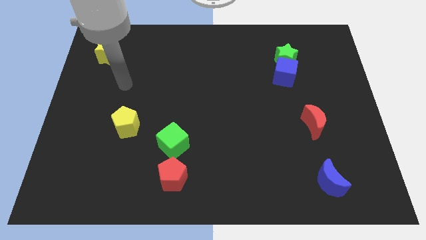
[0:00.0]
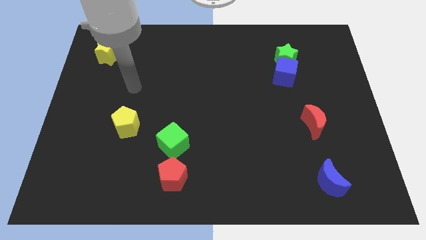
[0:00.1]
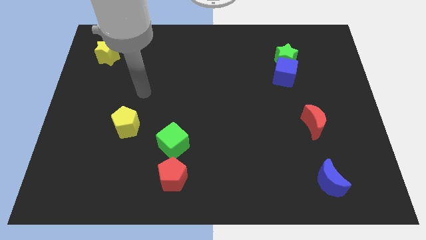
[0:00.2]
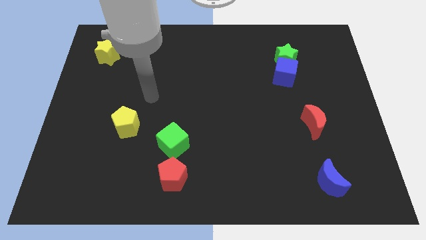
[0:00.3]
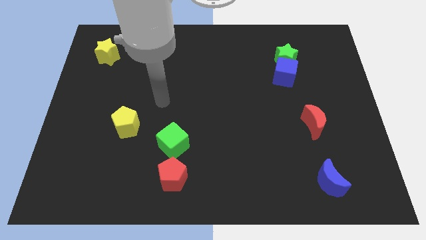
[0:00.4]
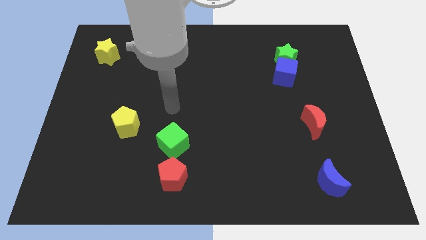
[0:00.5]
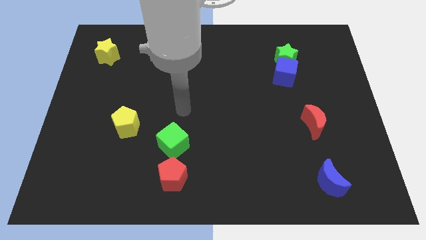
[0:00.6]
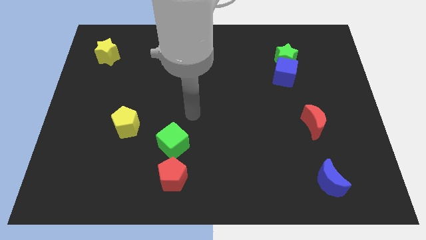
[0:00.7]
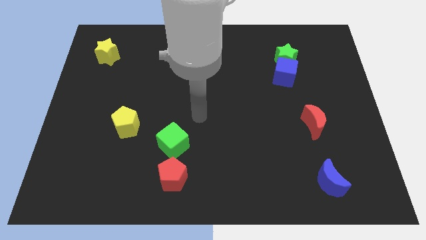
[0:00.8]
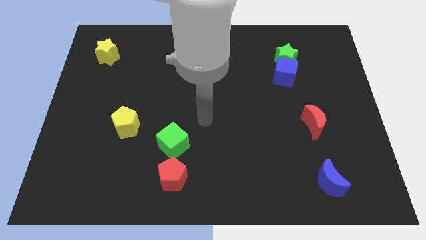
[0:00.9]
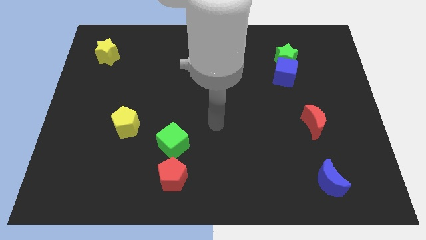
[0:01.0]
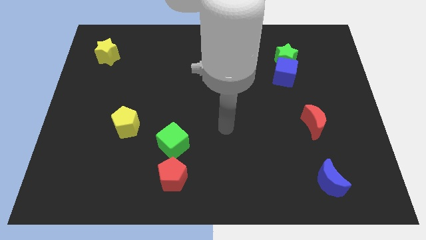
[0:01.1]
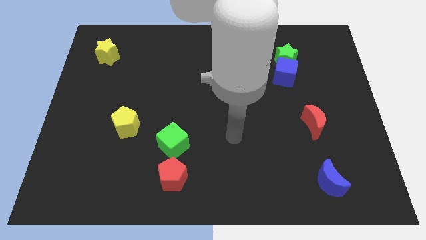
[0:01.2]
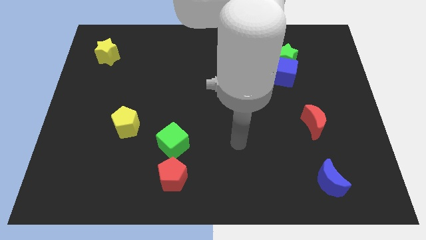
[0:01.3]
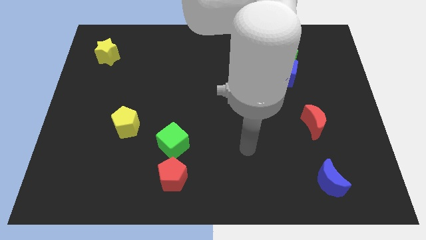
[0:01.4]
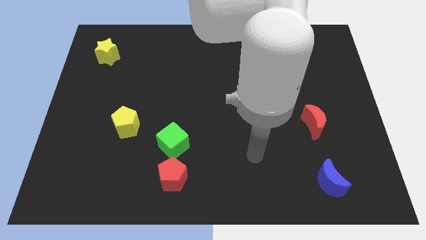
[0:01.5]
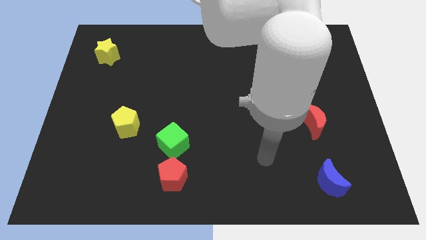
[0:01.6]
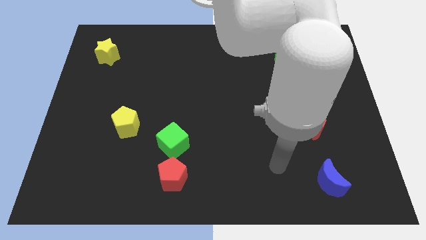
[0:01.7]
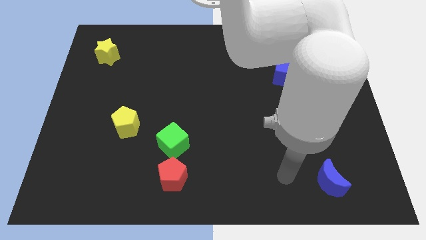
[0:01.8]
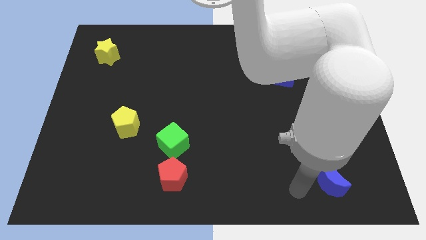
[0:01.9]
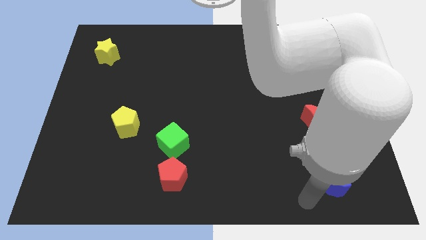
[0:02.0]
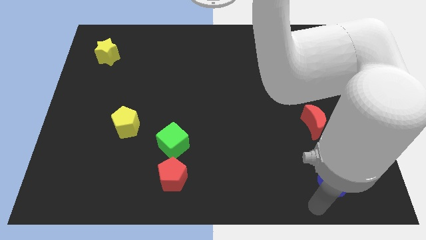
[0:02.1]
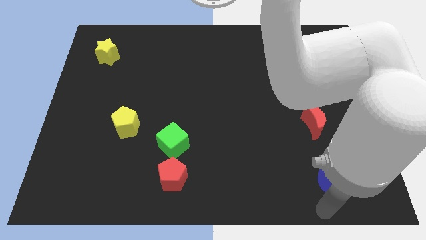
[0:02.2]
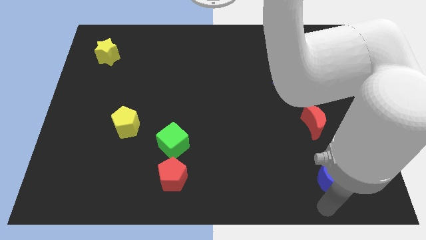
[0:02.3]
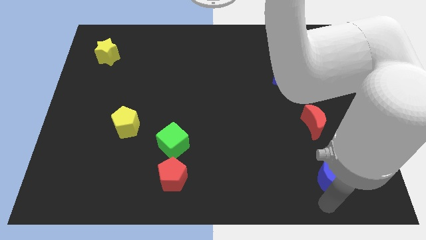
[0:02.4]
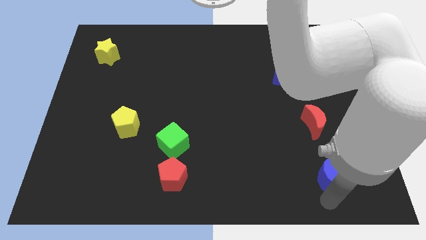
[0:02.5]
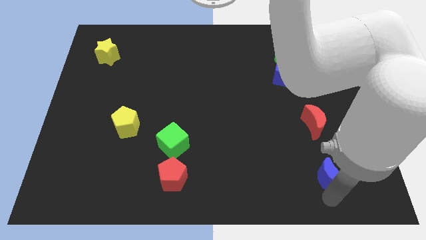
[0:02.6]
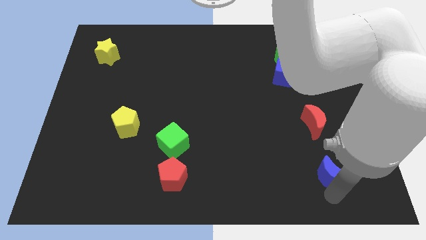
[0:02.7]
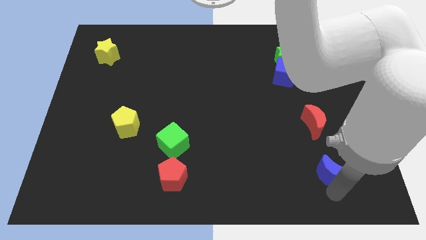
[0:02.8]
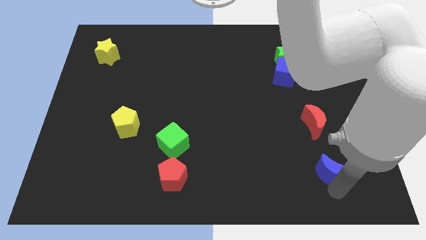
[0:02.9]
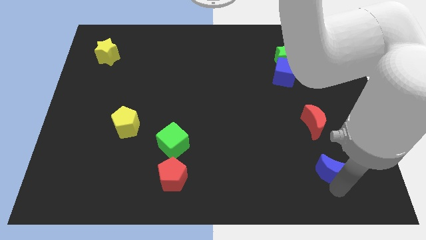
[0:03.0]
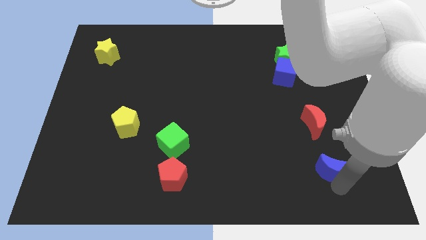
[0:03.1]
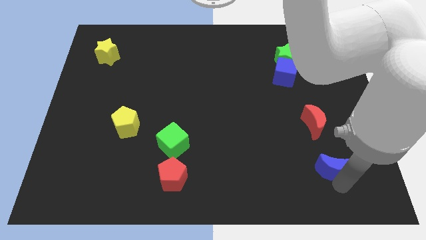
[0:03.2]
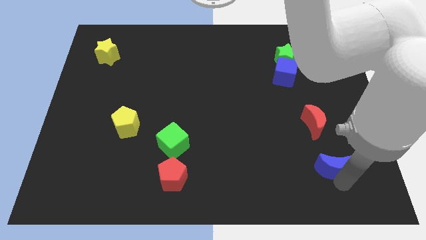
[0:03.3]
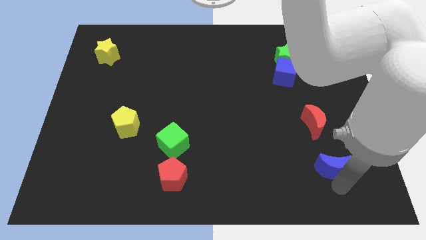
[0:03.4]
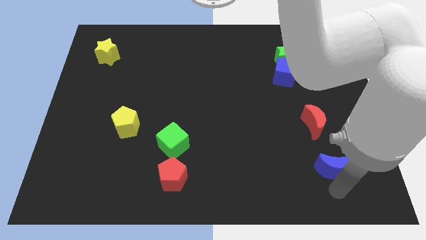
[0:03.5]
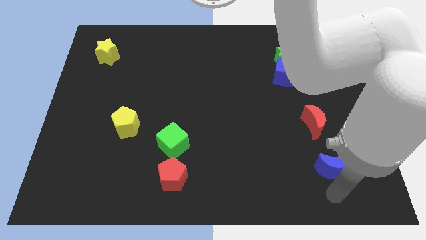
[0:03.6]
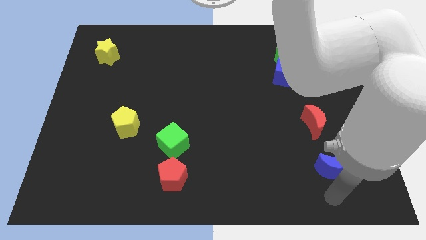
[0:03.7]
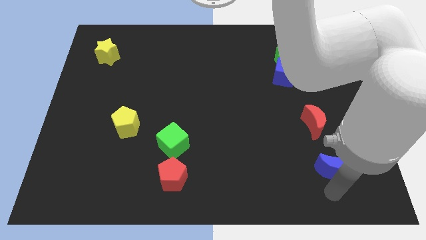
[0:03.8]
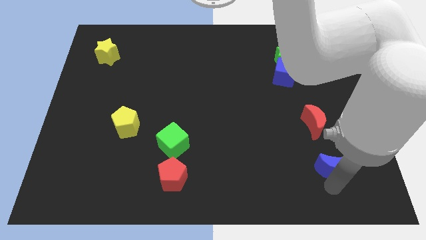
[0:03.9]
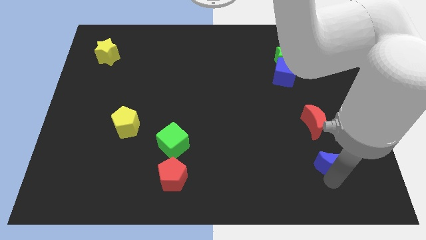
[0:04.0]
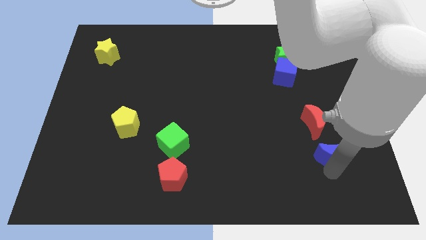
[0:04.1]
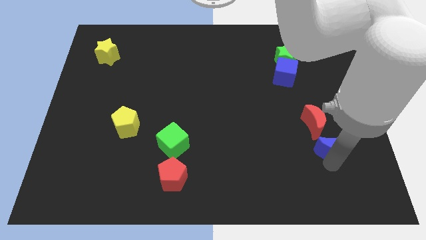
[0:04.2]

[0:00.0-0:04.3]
move the blue moon a little up

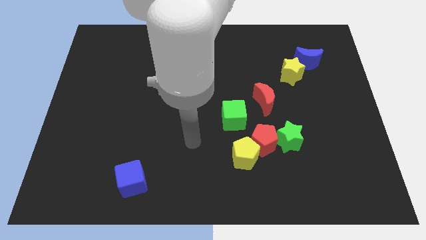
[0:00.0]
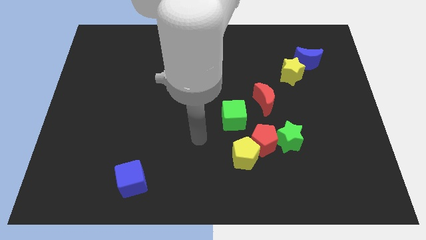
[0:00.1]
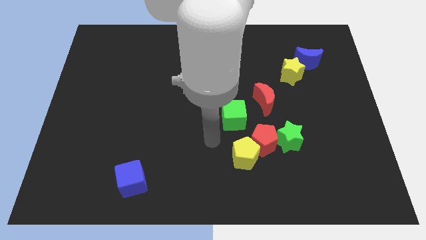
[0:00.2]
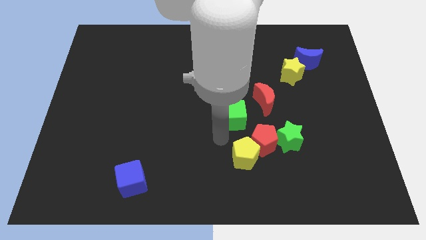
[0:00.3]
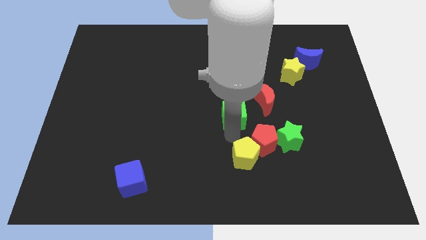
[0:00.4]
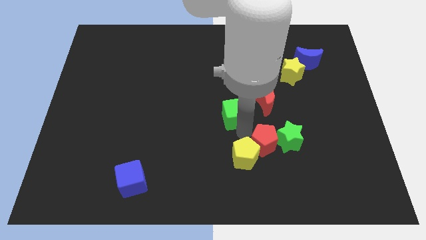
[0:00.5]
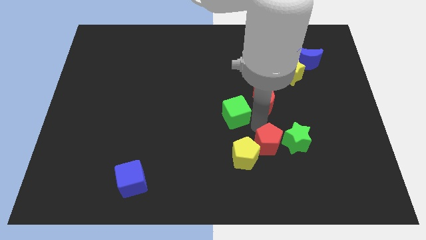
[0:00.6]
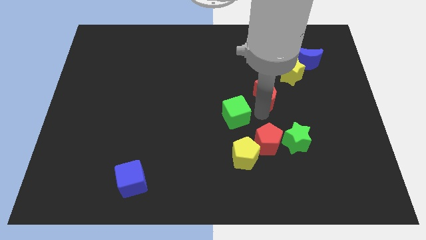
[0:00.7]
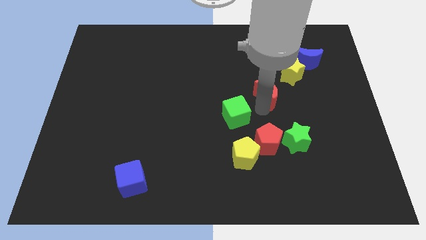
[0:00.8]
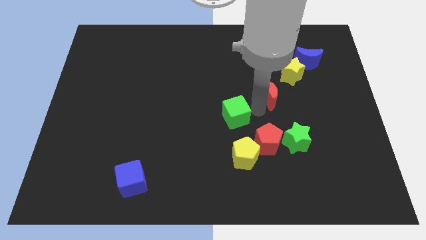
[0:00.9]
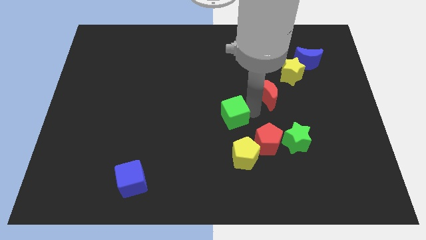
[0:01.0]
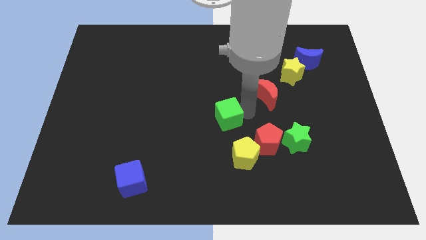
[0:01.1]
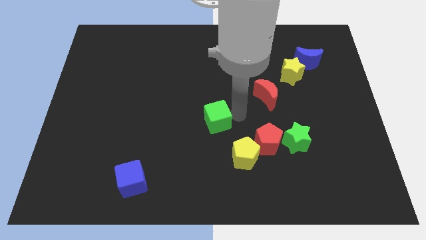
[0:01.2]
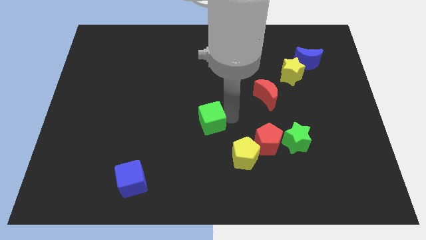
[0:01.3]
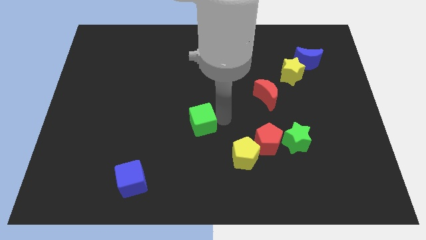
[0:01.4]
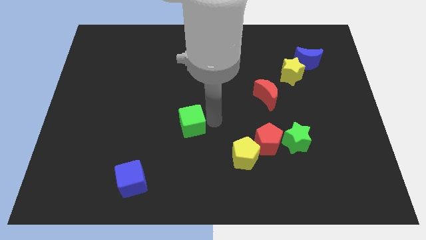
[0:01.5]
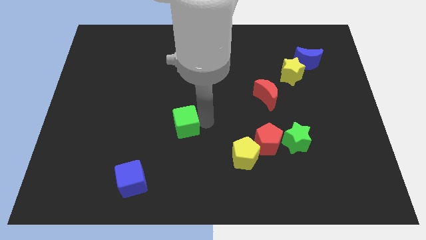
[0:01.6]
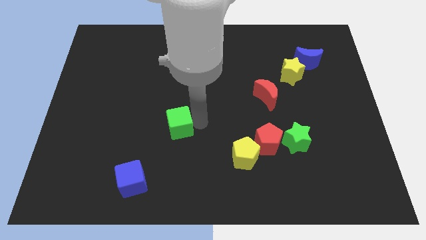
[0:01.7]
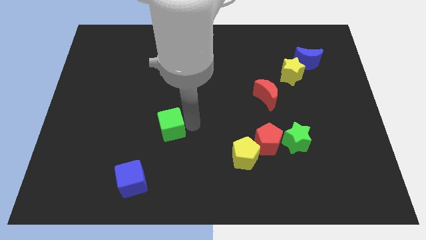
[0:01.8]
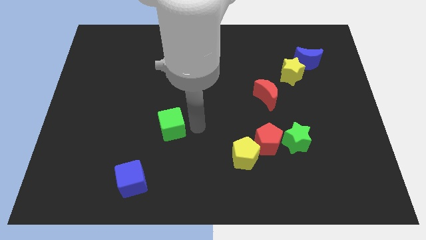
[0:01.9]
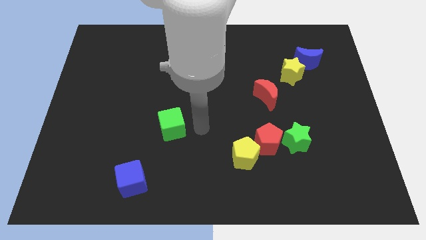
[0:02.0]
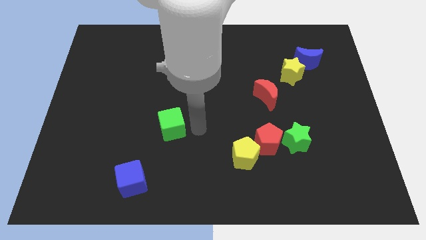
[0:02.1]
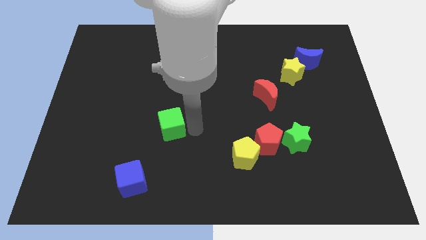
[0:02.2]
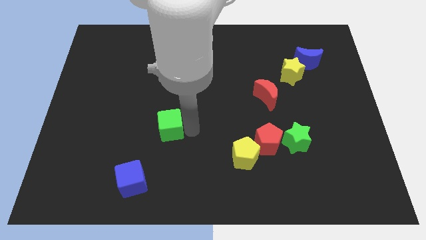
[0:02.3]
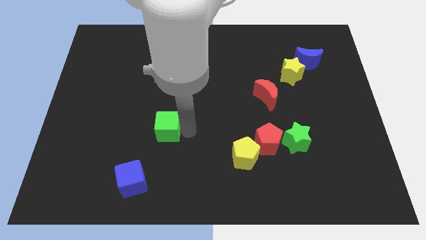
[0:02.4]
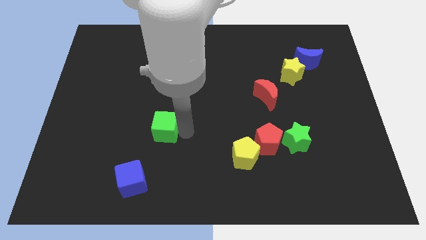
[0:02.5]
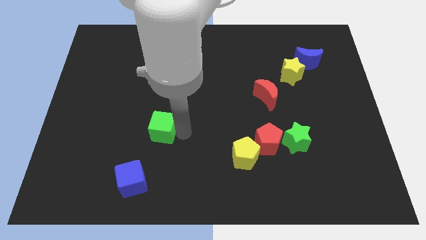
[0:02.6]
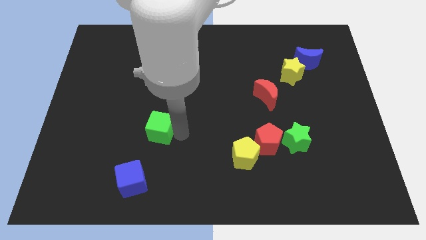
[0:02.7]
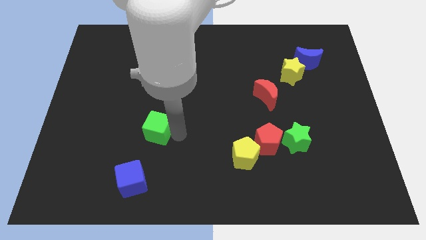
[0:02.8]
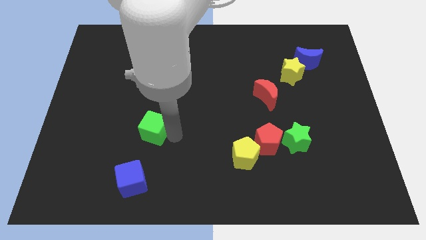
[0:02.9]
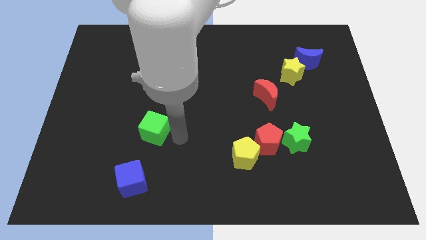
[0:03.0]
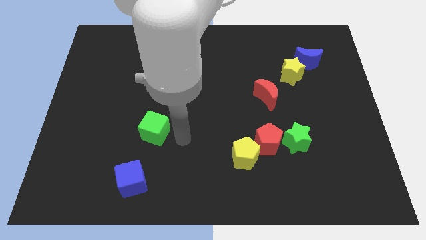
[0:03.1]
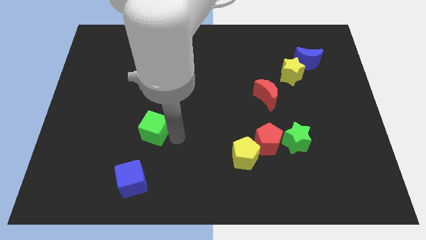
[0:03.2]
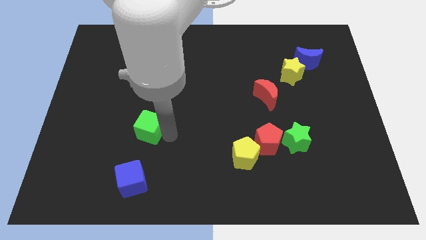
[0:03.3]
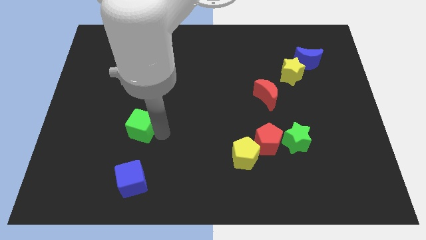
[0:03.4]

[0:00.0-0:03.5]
slide the green cube left

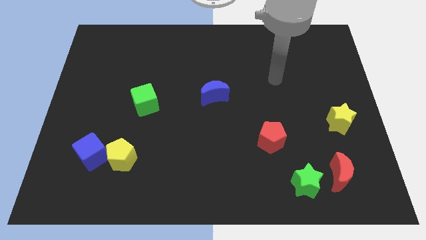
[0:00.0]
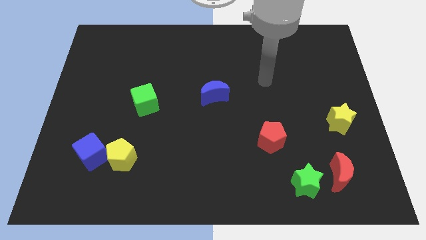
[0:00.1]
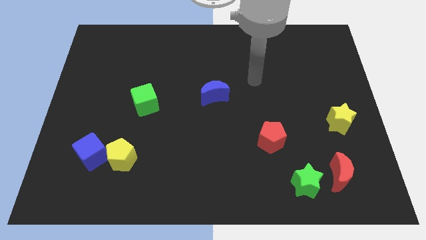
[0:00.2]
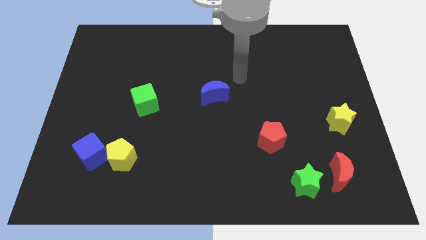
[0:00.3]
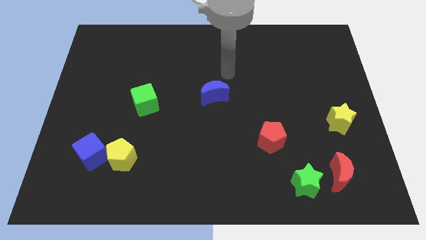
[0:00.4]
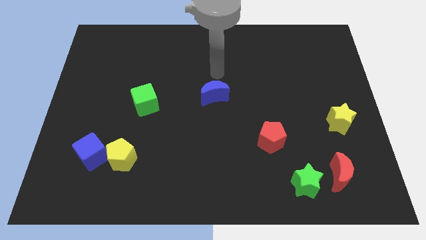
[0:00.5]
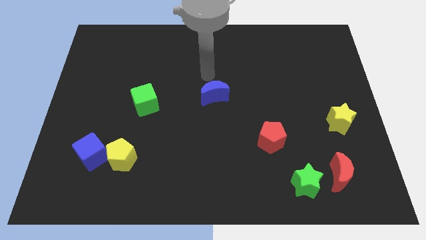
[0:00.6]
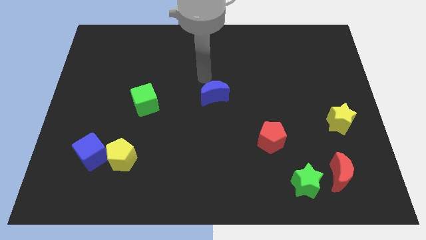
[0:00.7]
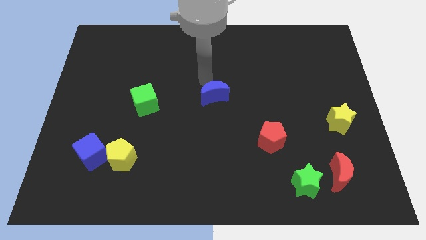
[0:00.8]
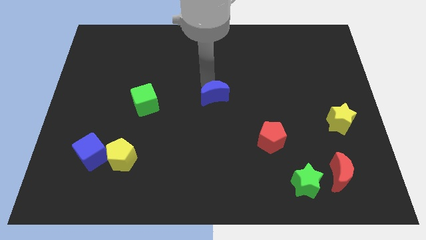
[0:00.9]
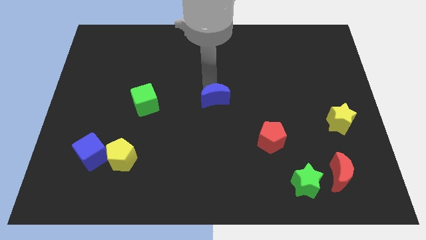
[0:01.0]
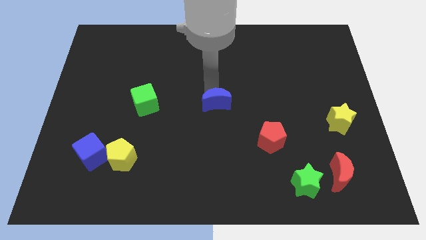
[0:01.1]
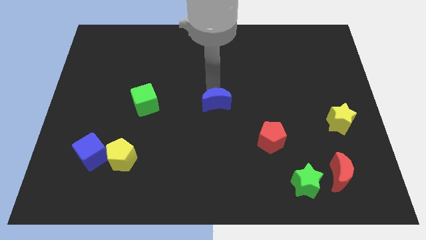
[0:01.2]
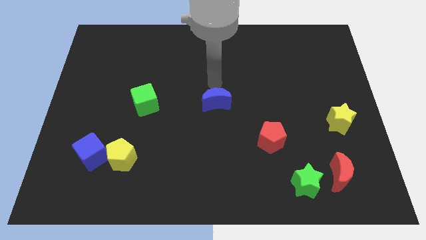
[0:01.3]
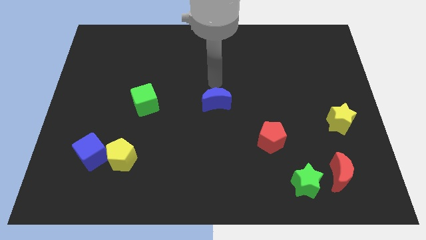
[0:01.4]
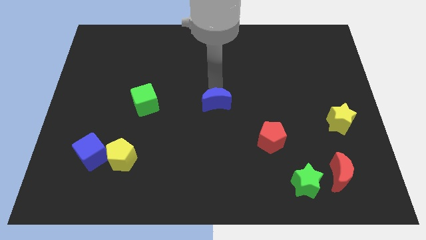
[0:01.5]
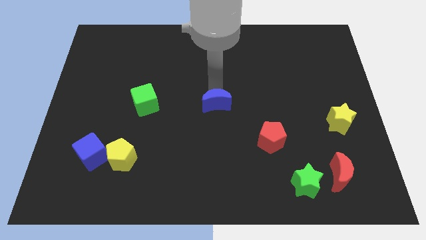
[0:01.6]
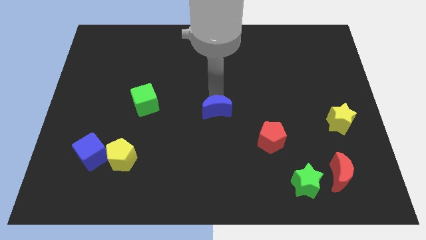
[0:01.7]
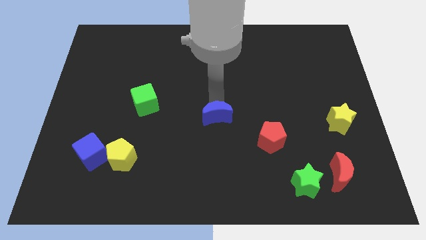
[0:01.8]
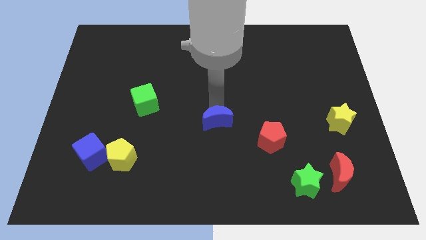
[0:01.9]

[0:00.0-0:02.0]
move the blue moon down a little bit
